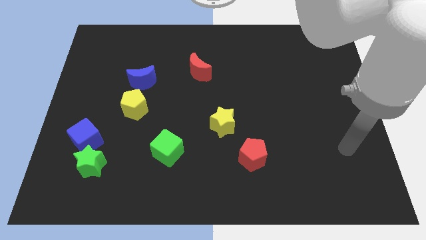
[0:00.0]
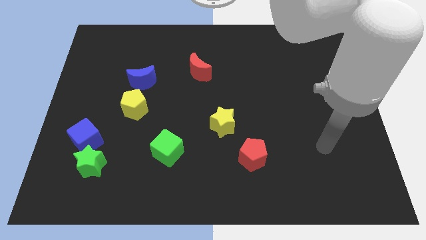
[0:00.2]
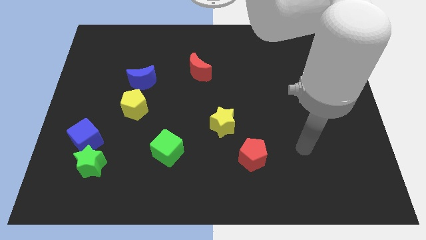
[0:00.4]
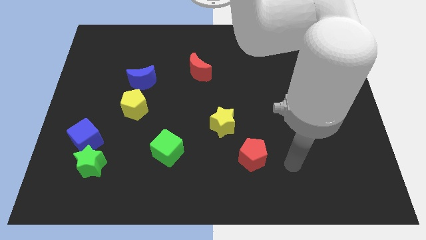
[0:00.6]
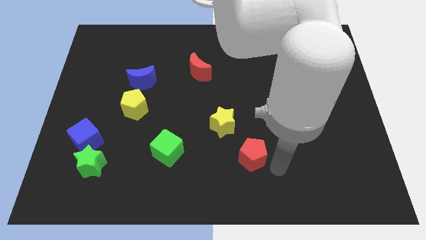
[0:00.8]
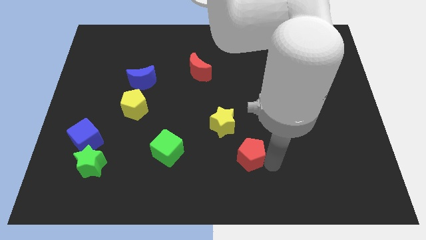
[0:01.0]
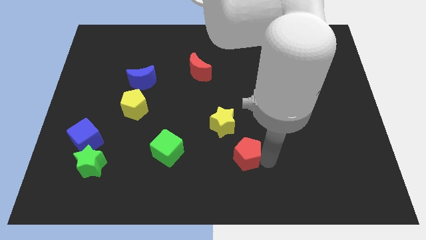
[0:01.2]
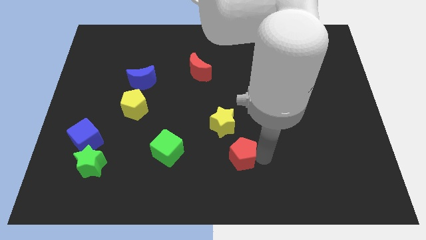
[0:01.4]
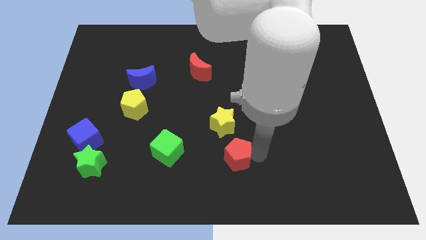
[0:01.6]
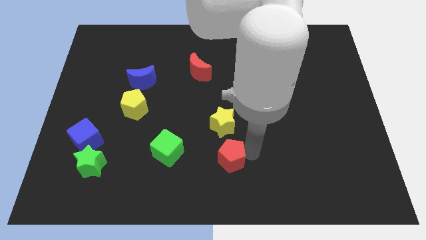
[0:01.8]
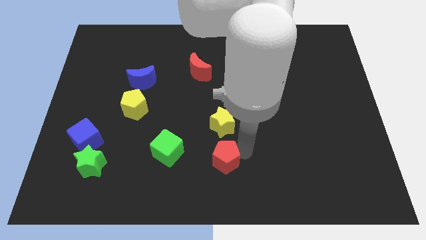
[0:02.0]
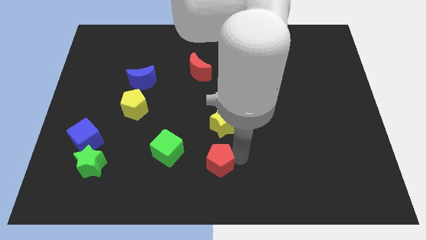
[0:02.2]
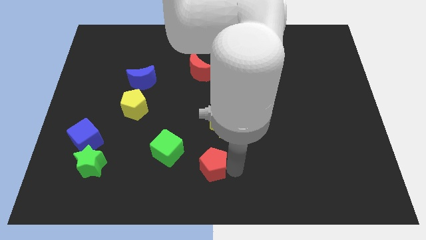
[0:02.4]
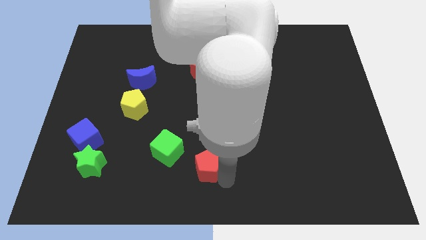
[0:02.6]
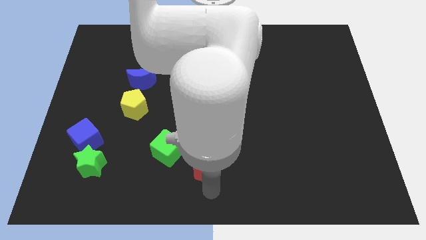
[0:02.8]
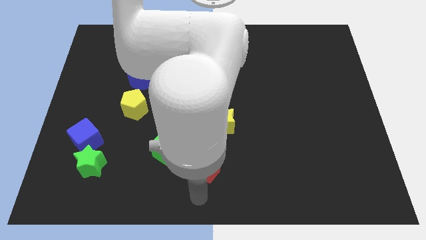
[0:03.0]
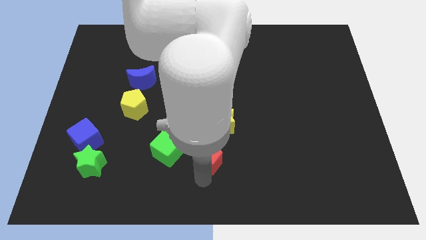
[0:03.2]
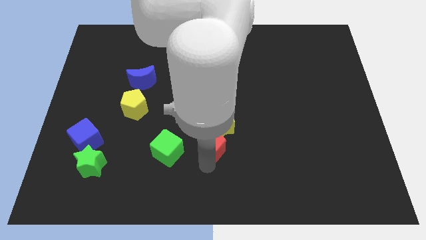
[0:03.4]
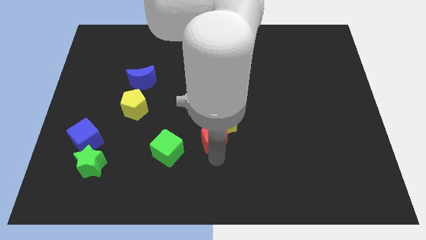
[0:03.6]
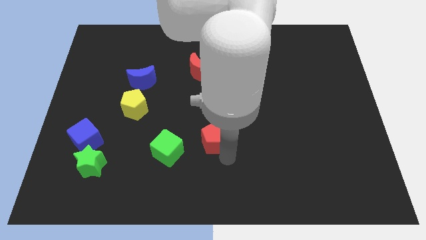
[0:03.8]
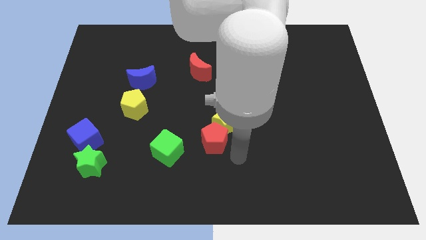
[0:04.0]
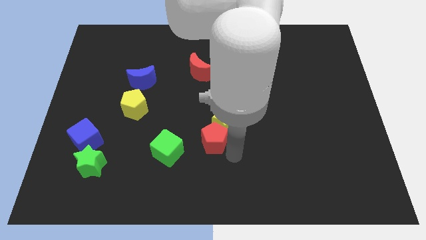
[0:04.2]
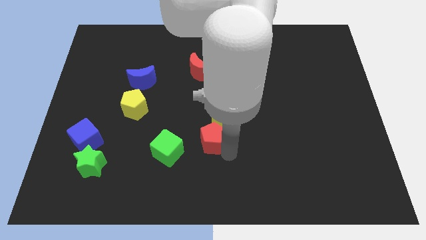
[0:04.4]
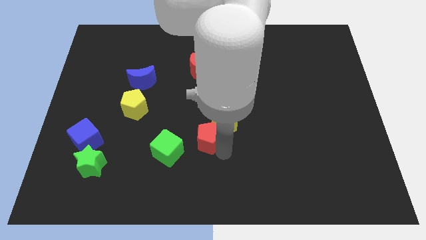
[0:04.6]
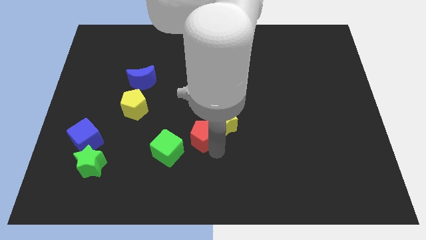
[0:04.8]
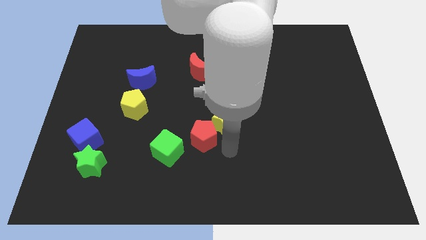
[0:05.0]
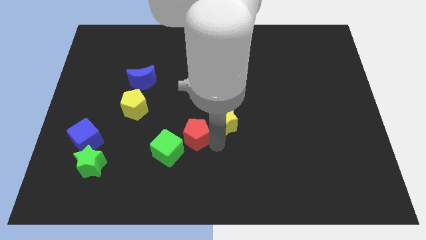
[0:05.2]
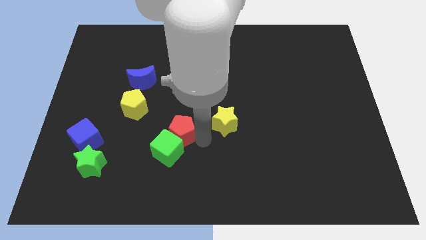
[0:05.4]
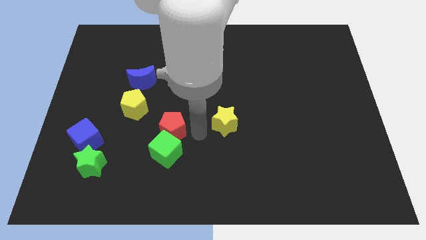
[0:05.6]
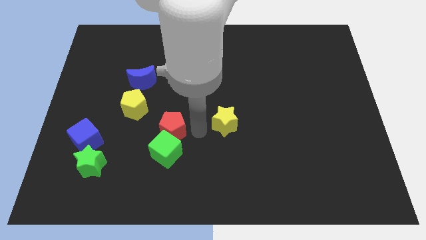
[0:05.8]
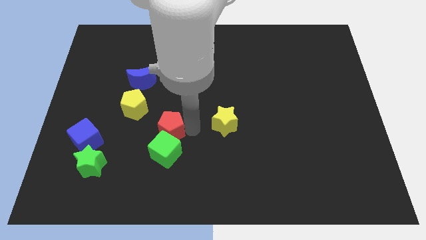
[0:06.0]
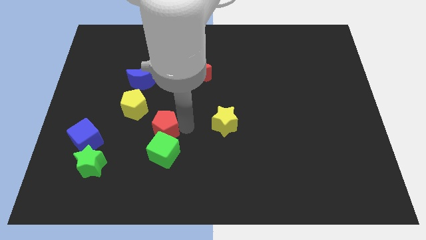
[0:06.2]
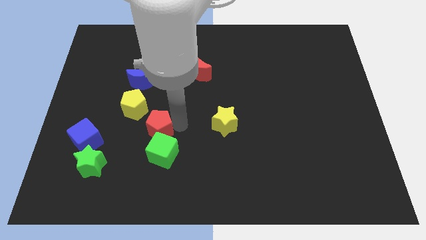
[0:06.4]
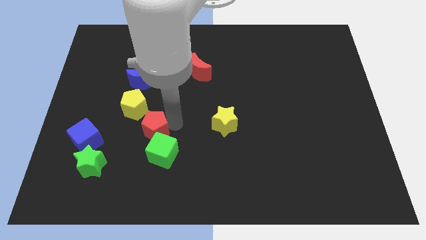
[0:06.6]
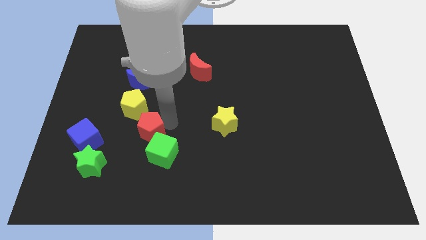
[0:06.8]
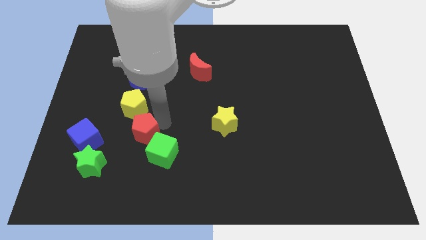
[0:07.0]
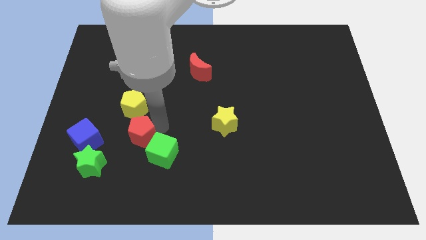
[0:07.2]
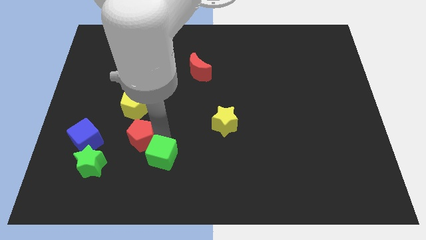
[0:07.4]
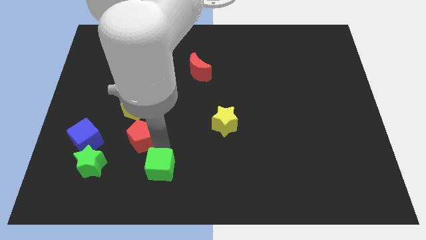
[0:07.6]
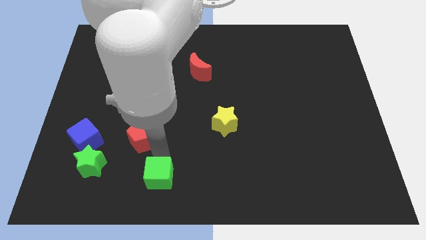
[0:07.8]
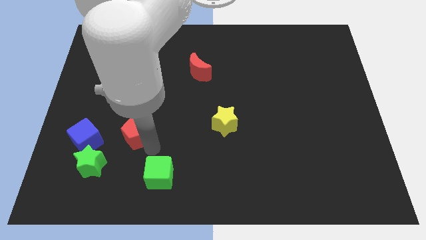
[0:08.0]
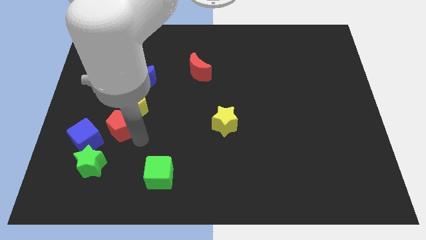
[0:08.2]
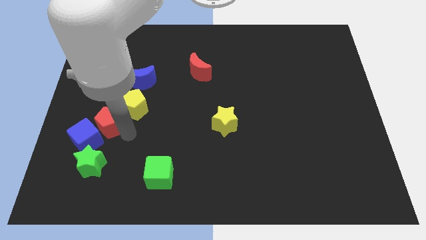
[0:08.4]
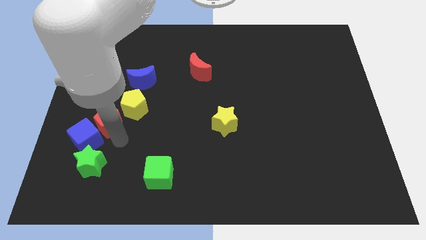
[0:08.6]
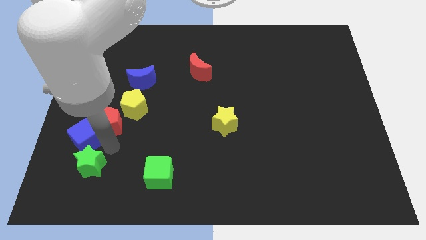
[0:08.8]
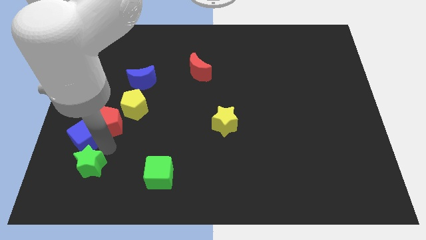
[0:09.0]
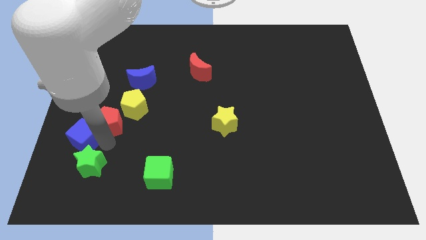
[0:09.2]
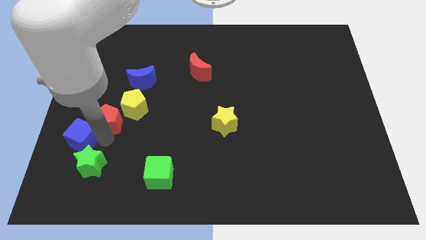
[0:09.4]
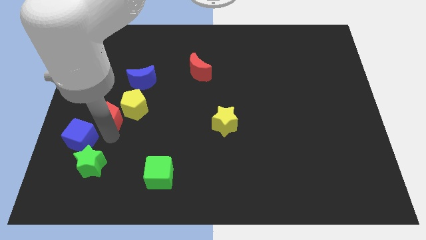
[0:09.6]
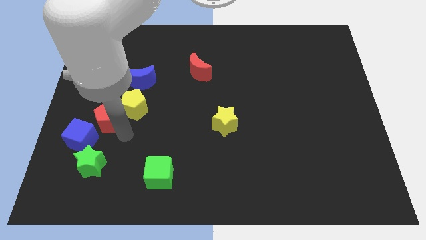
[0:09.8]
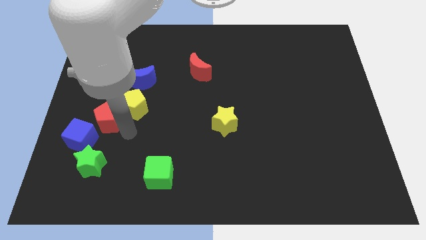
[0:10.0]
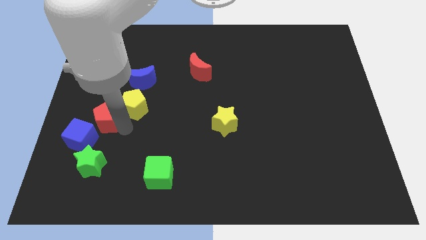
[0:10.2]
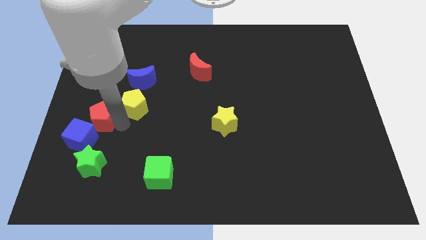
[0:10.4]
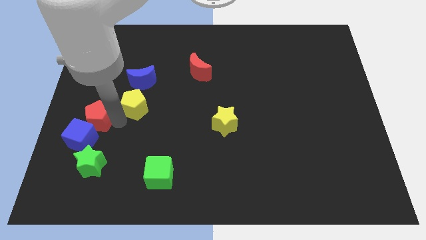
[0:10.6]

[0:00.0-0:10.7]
push the red pentagon to the left side of the board

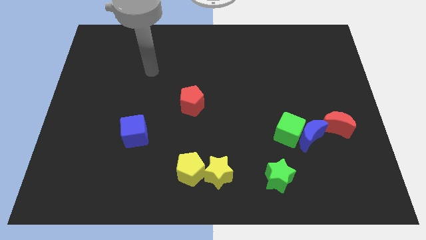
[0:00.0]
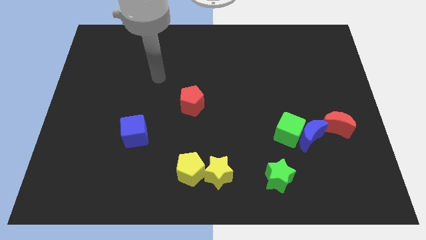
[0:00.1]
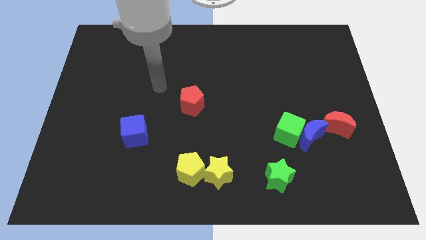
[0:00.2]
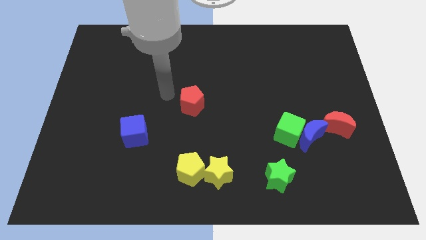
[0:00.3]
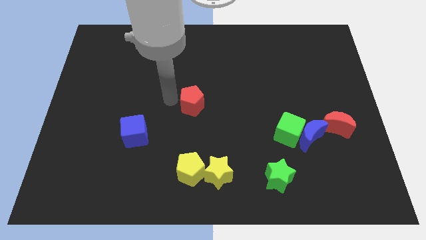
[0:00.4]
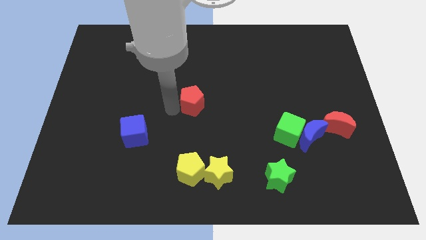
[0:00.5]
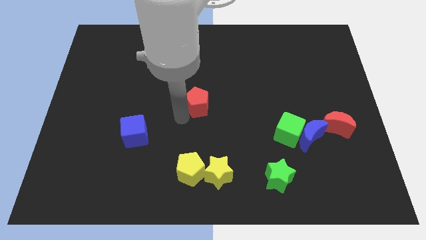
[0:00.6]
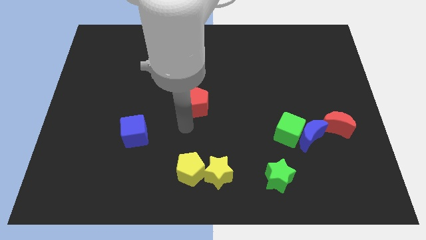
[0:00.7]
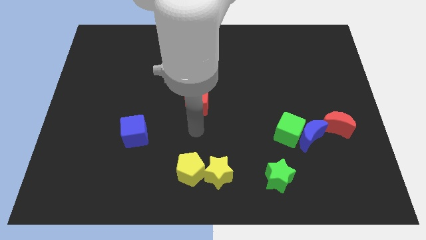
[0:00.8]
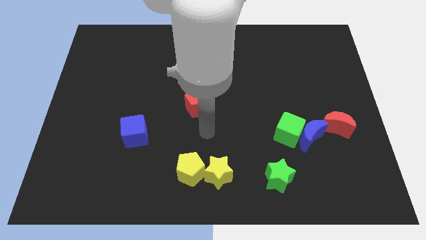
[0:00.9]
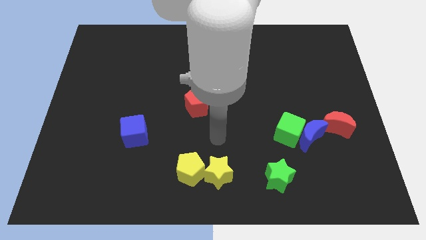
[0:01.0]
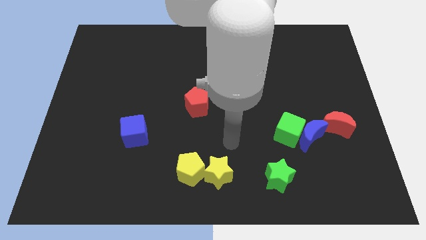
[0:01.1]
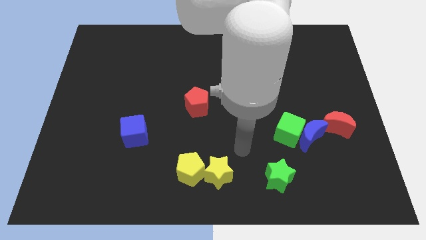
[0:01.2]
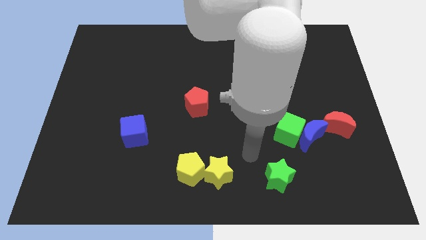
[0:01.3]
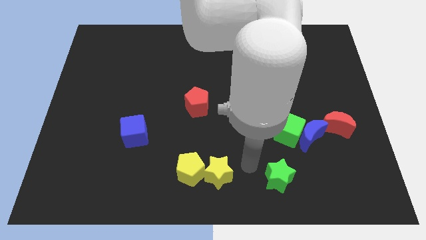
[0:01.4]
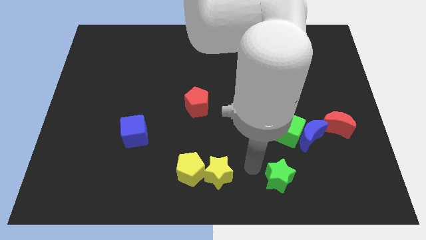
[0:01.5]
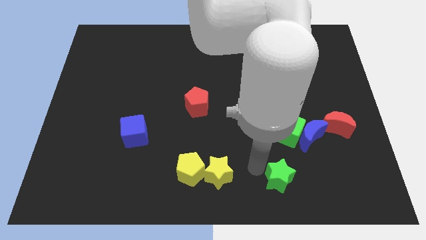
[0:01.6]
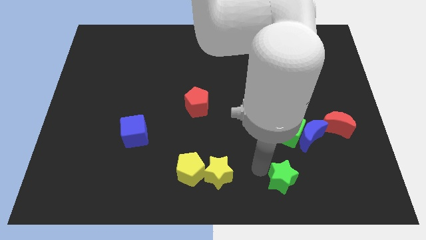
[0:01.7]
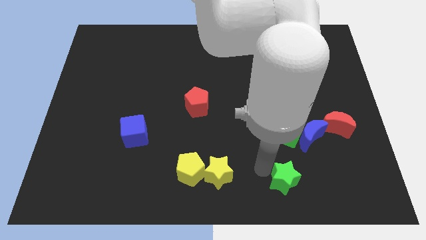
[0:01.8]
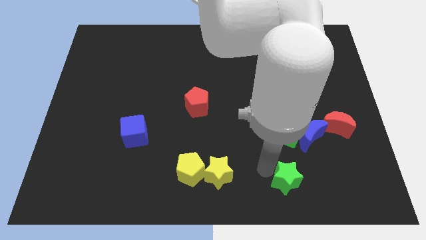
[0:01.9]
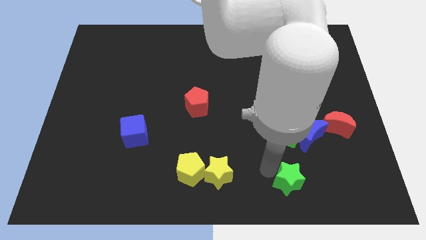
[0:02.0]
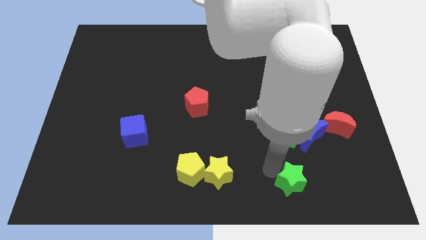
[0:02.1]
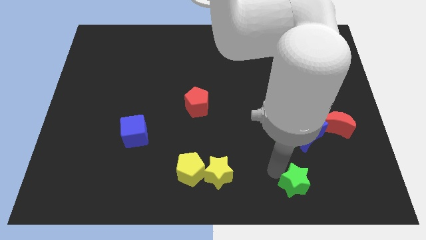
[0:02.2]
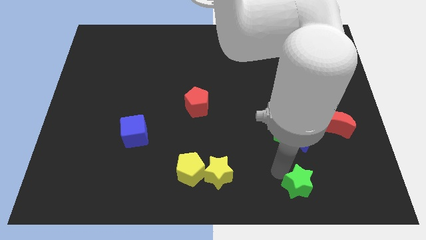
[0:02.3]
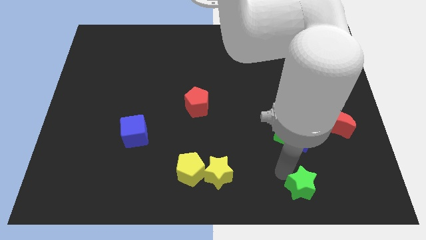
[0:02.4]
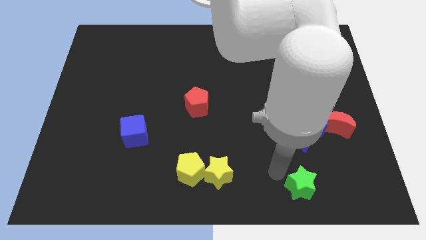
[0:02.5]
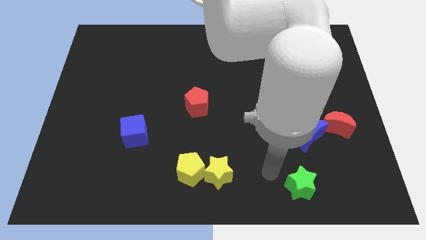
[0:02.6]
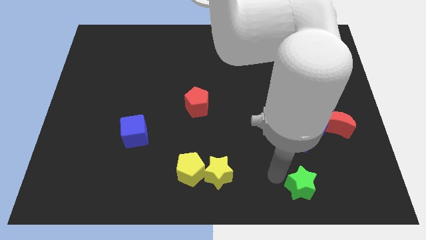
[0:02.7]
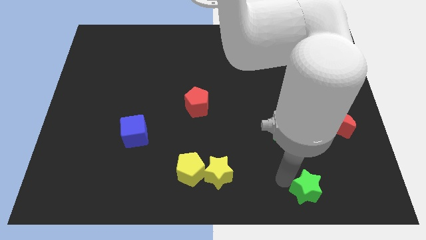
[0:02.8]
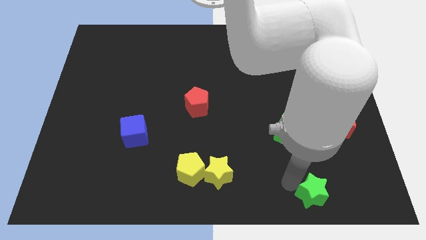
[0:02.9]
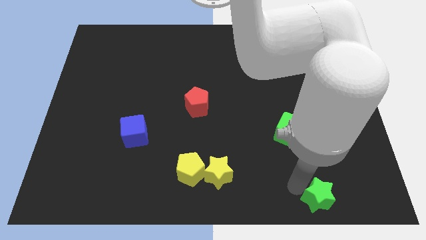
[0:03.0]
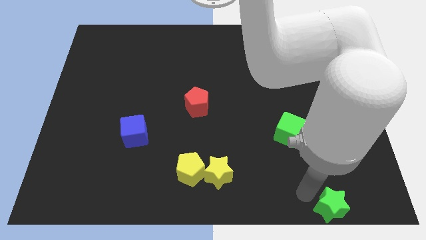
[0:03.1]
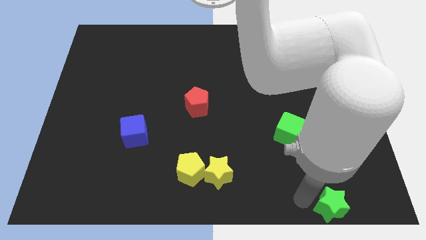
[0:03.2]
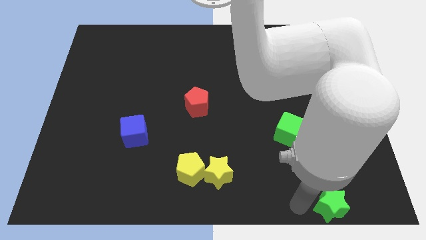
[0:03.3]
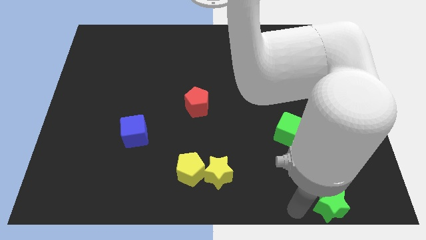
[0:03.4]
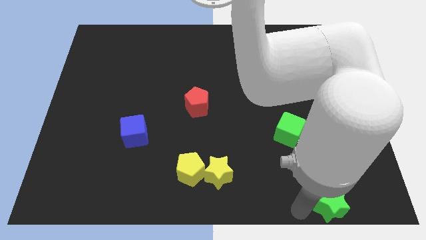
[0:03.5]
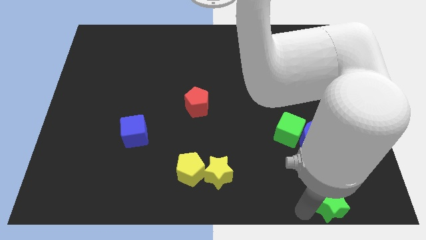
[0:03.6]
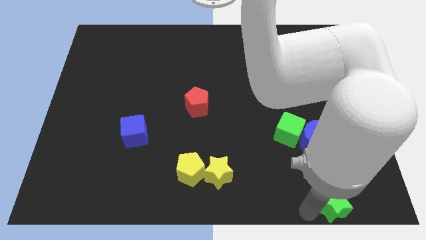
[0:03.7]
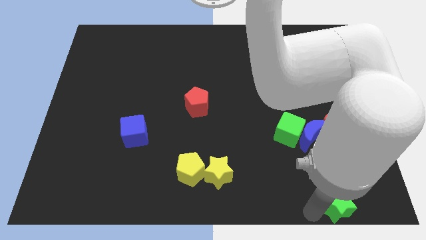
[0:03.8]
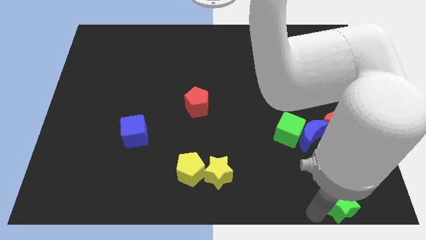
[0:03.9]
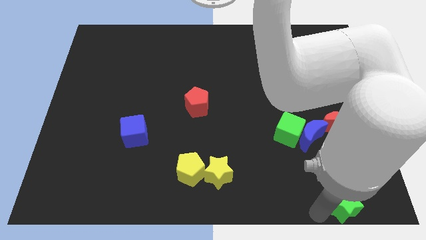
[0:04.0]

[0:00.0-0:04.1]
slide the green star to the bottom right corner
